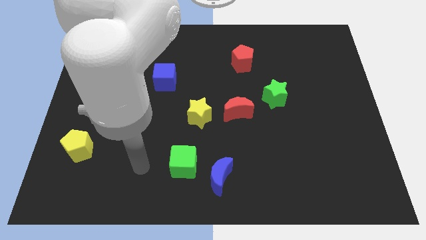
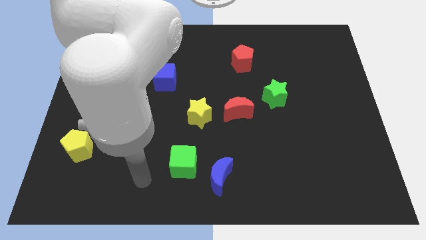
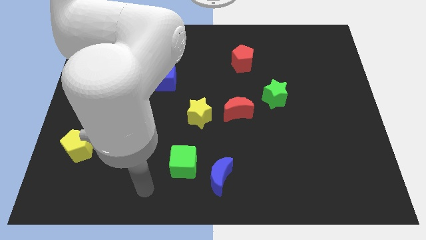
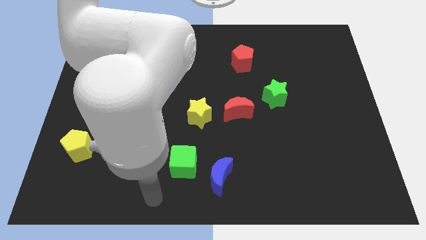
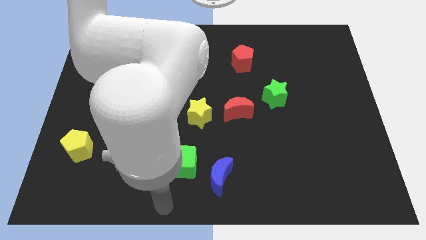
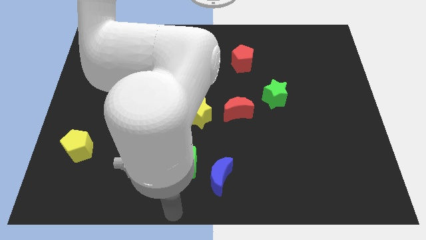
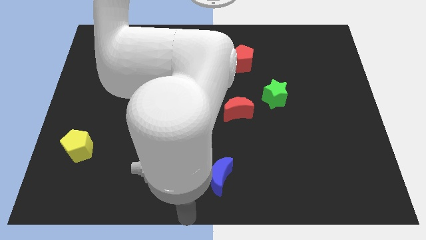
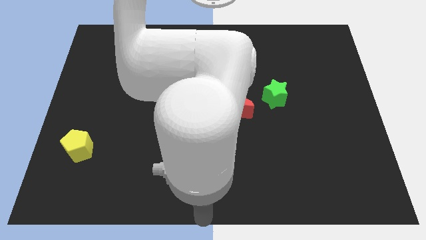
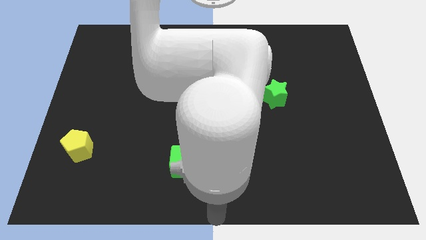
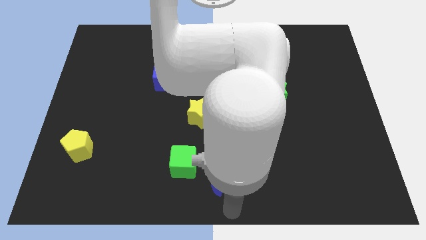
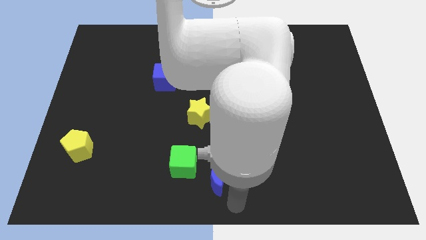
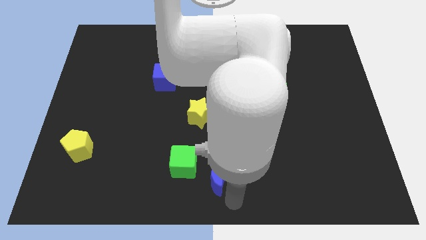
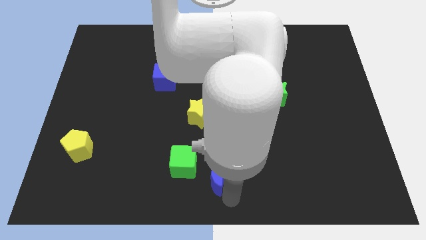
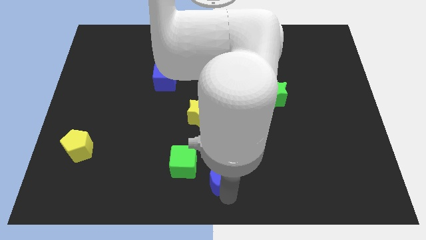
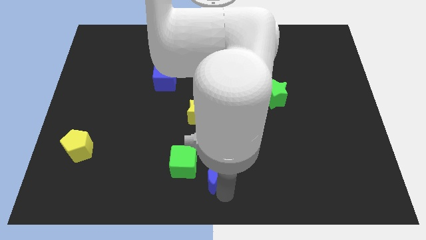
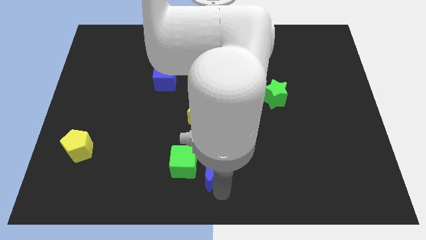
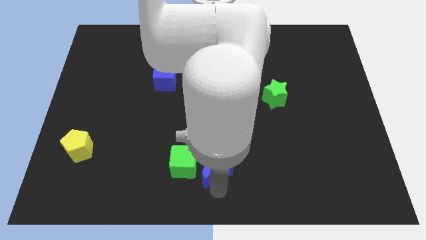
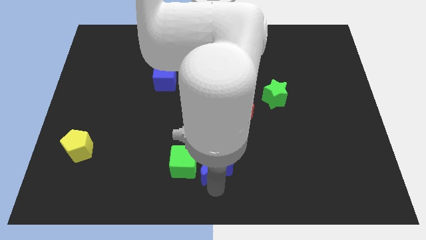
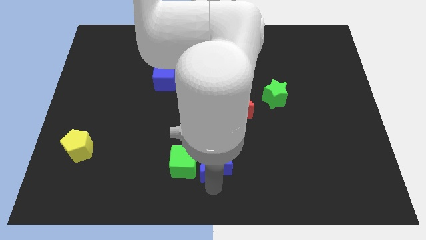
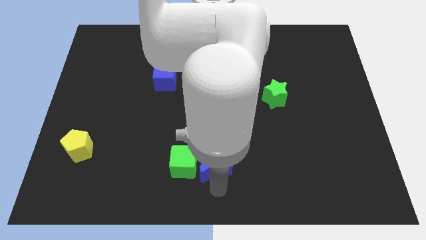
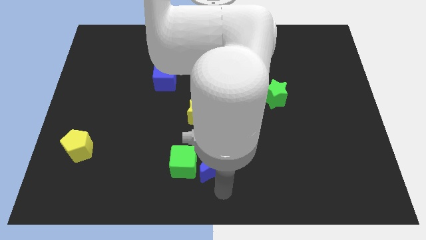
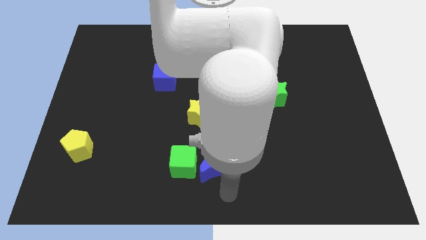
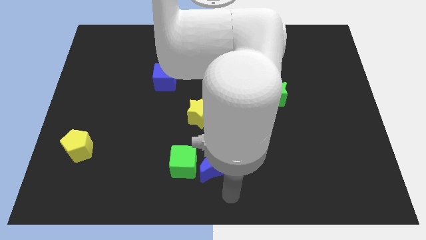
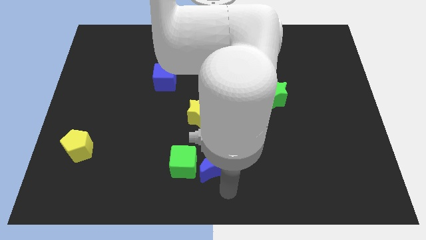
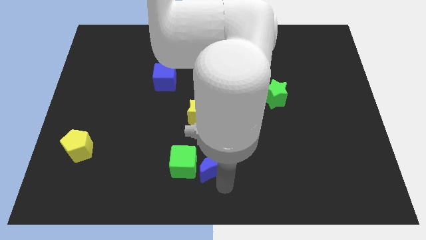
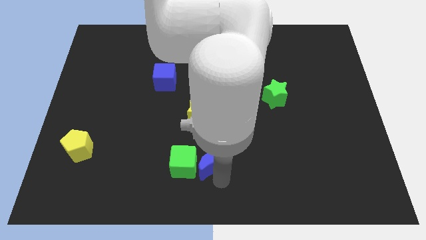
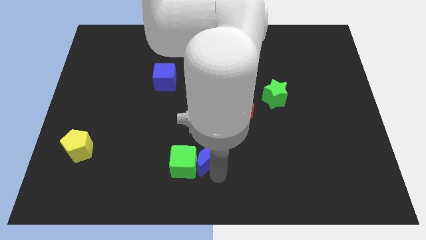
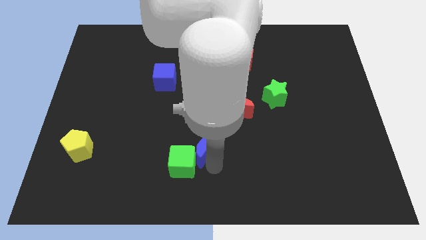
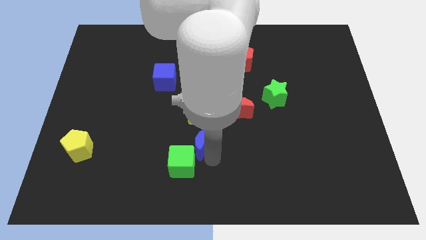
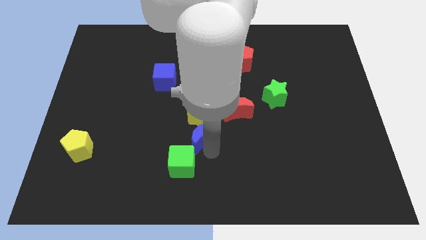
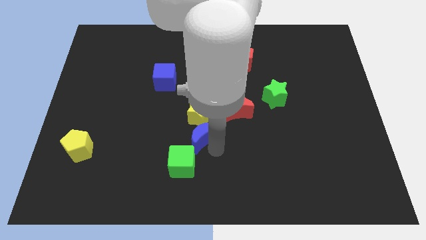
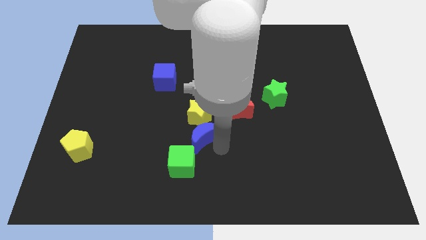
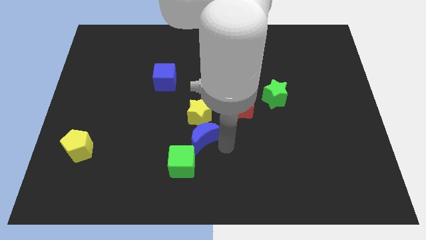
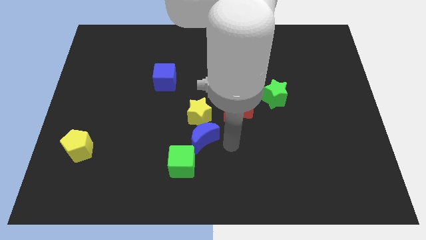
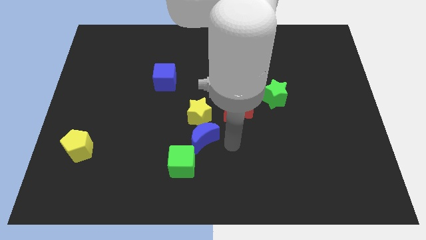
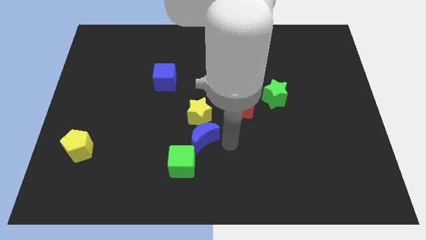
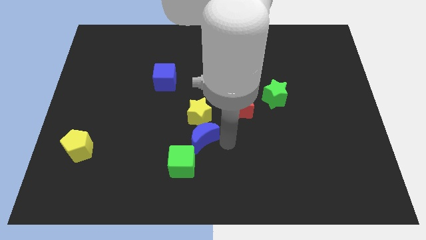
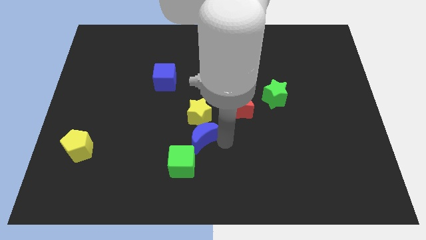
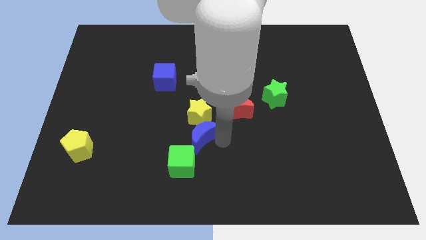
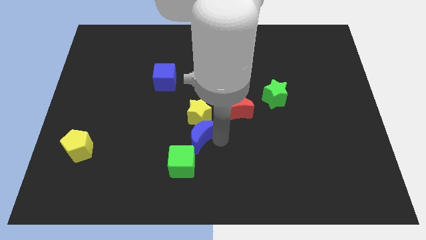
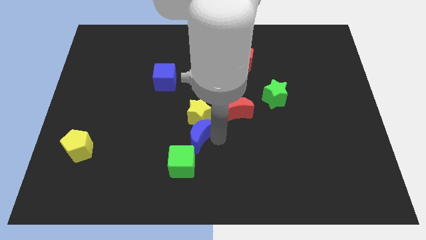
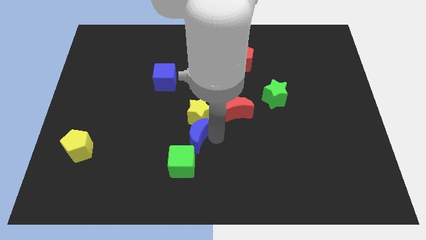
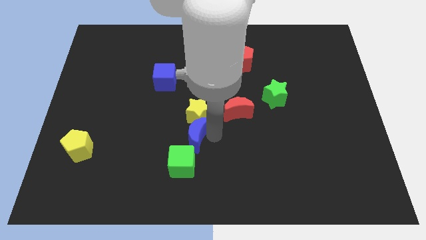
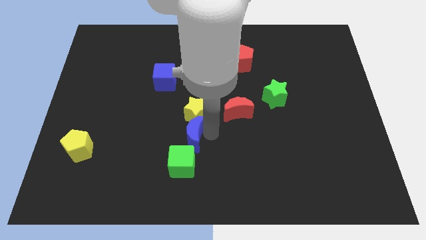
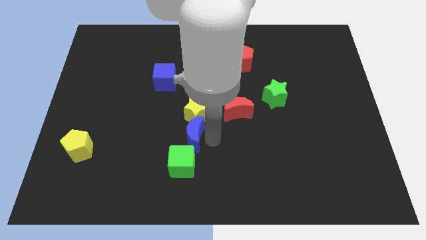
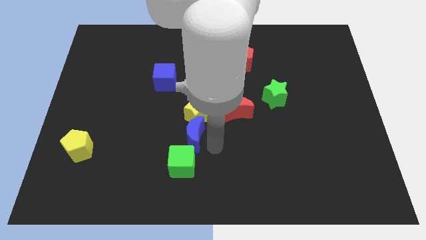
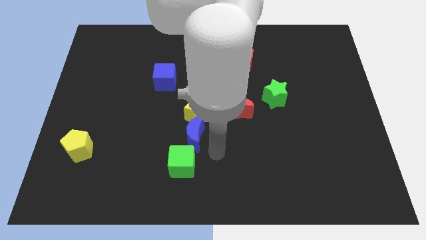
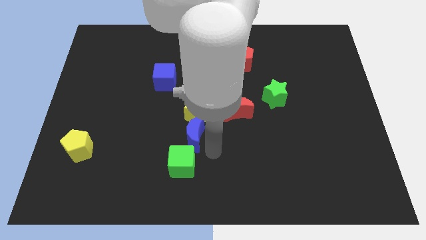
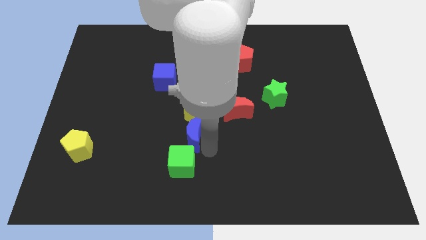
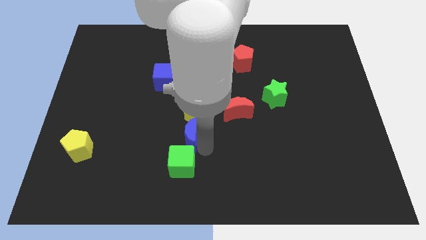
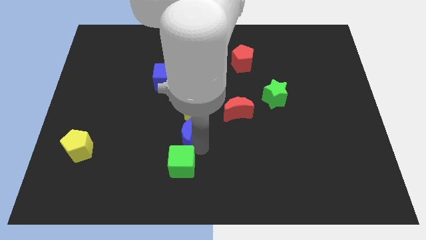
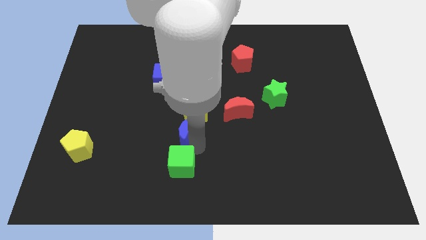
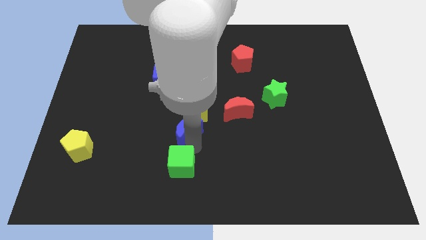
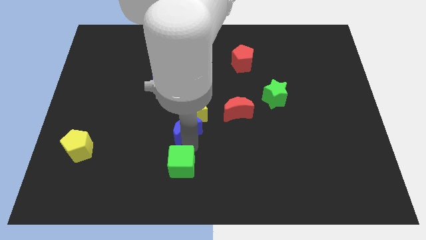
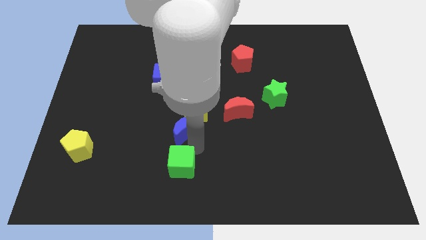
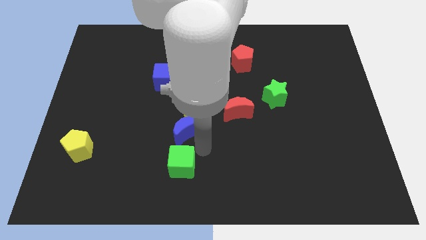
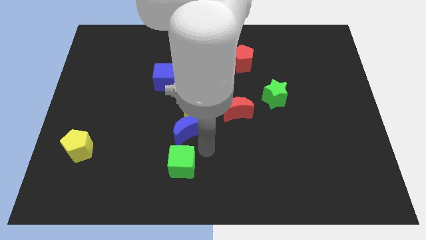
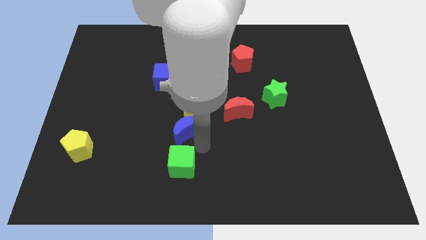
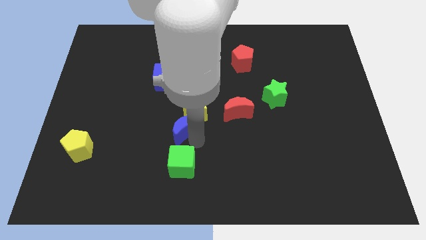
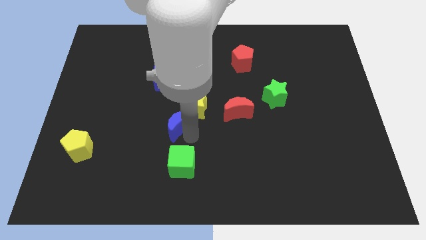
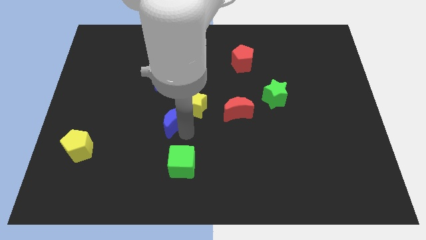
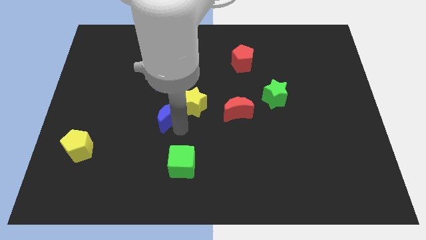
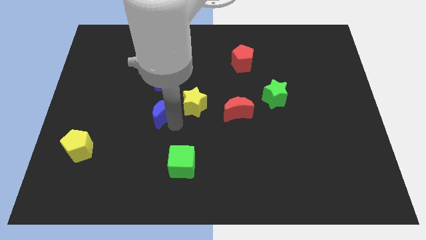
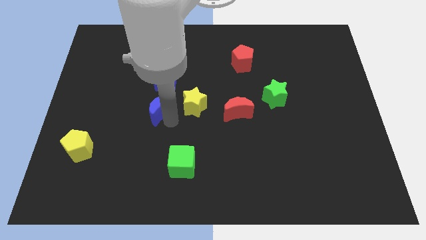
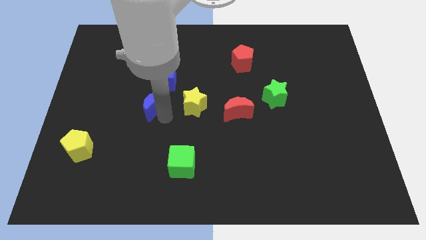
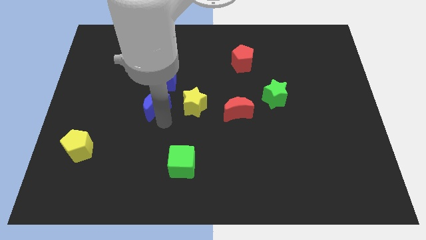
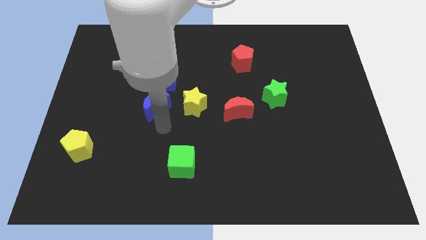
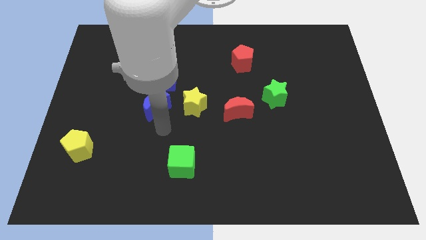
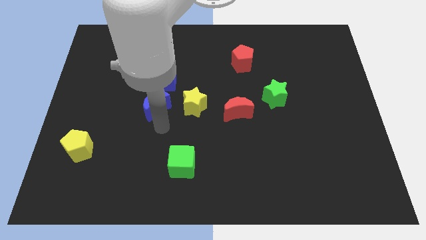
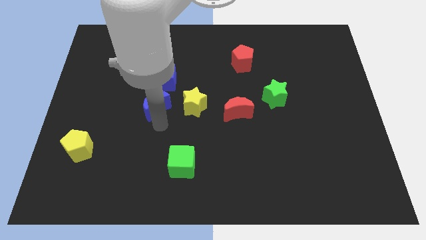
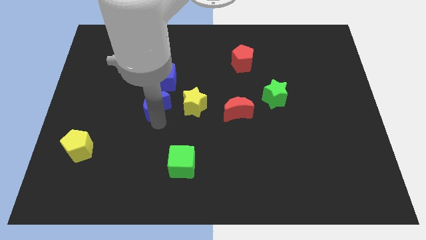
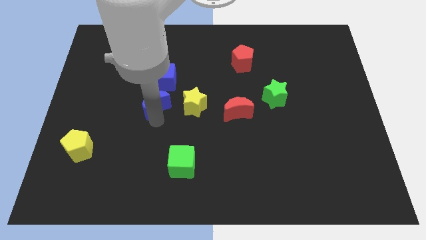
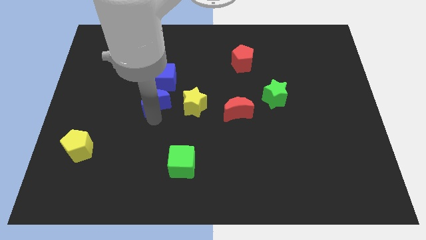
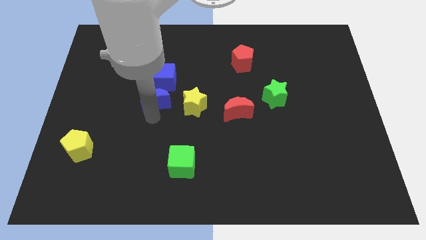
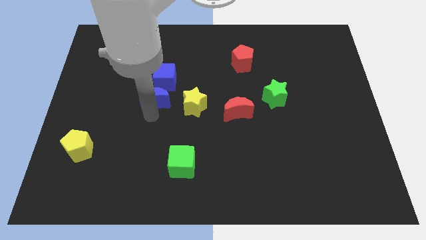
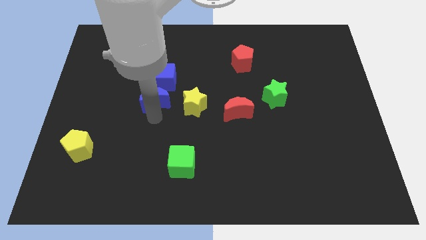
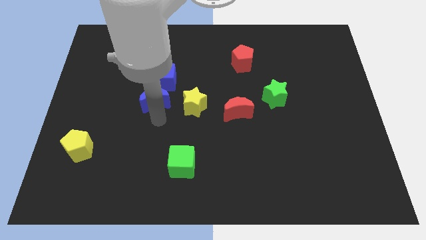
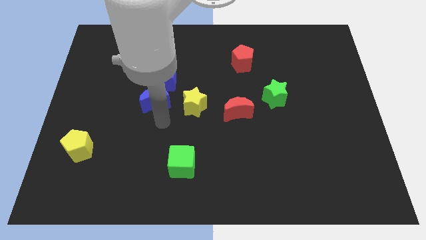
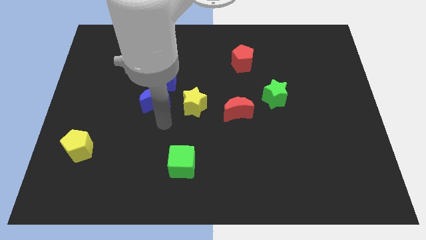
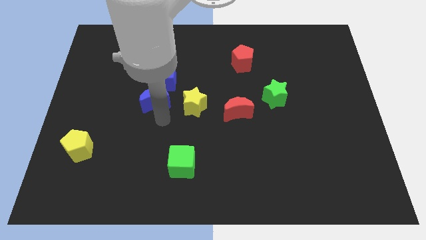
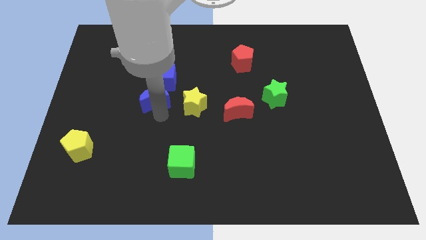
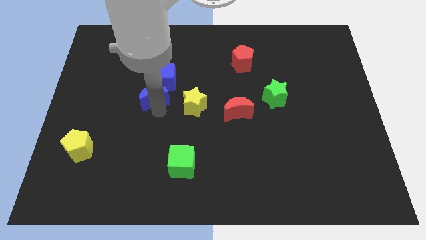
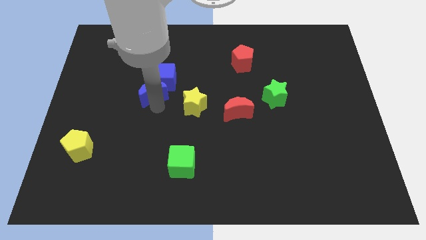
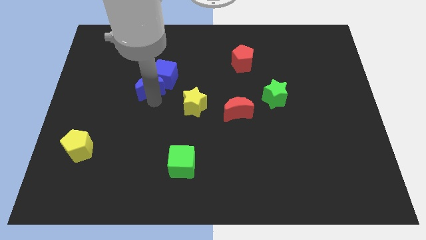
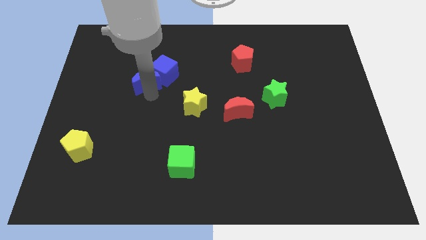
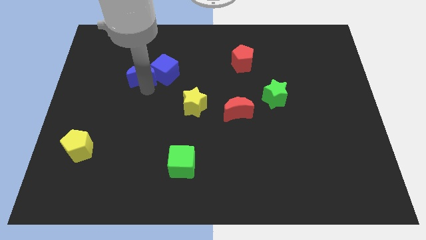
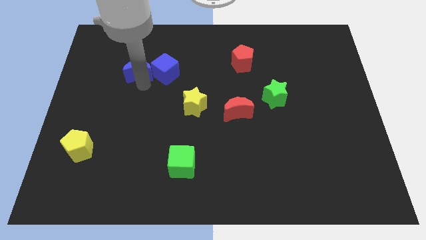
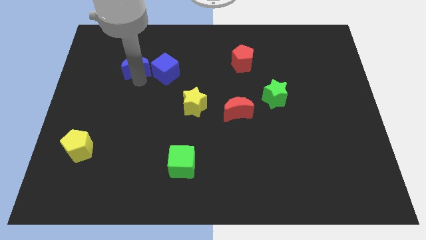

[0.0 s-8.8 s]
move the blue moon diagonally up and to the left of the blue cube
